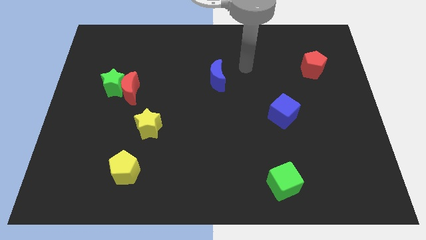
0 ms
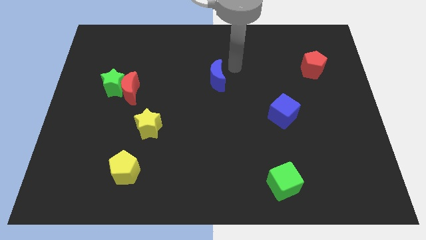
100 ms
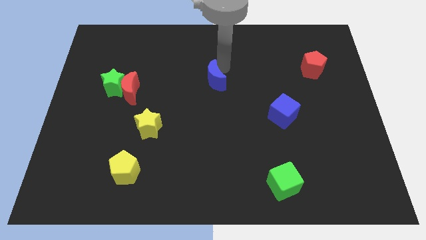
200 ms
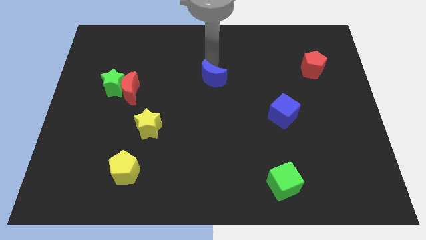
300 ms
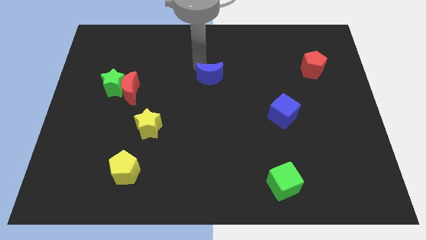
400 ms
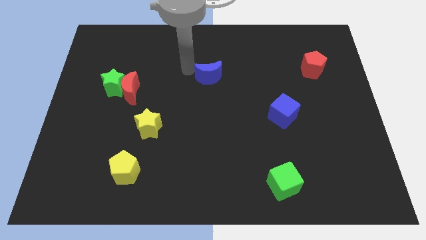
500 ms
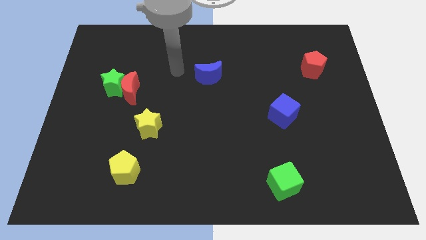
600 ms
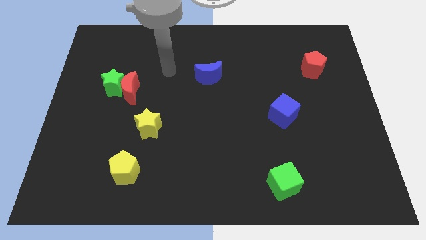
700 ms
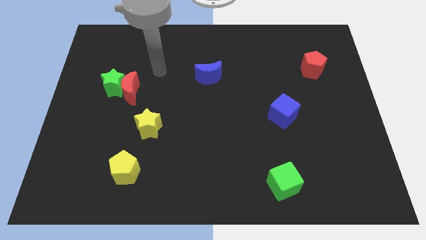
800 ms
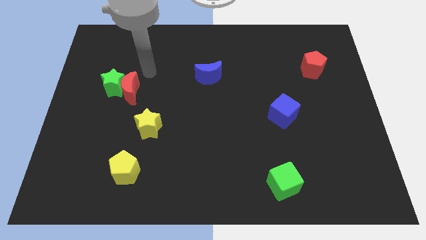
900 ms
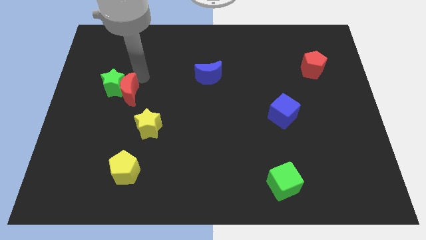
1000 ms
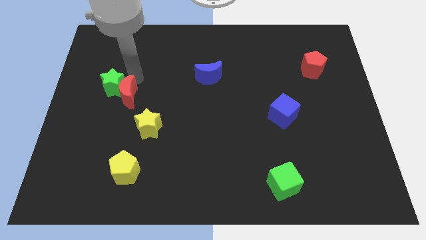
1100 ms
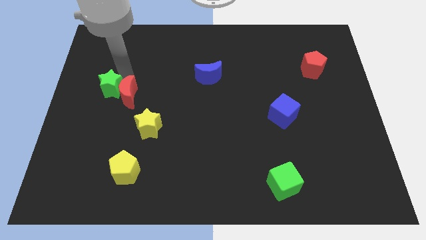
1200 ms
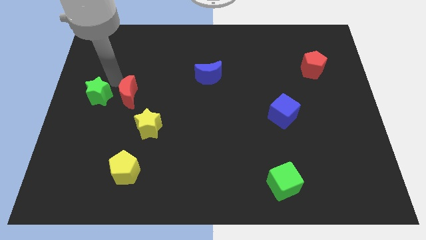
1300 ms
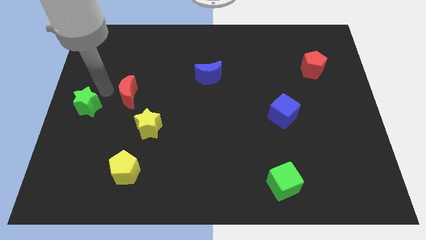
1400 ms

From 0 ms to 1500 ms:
pull the red moon apart from the green star

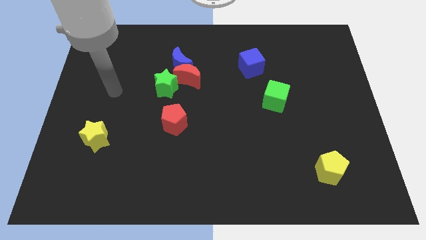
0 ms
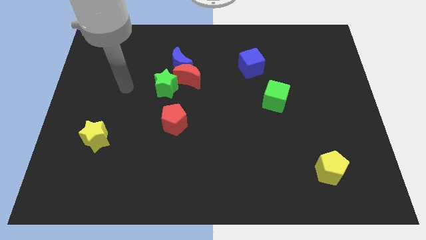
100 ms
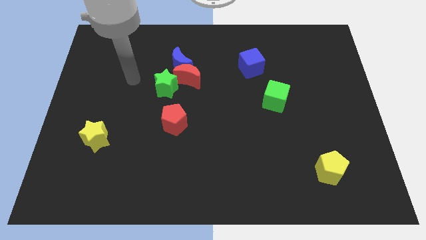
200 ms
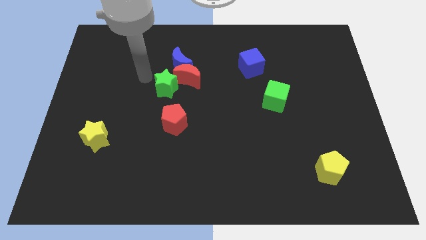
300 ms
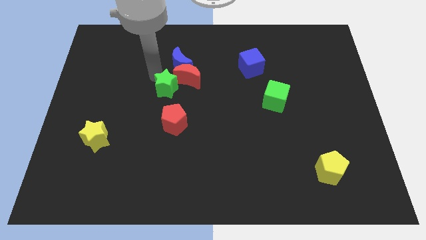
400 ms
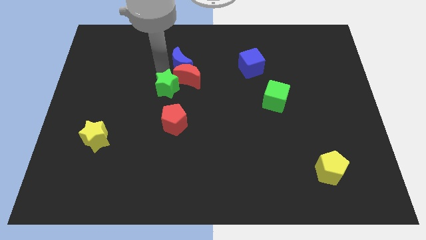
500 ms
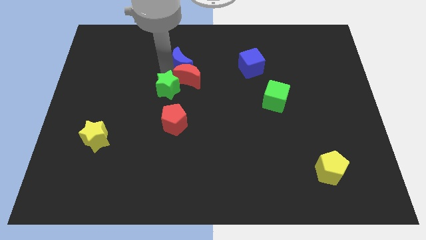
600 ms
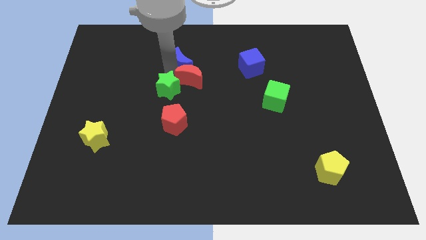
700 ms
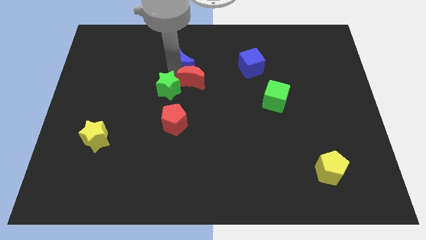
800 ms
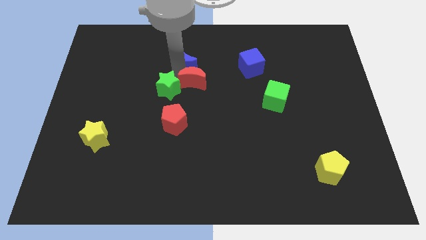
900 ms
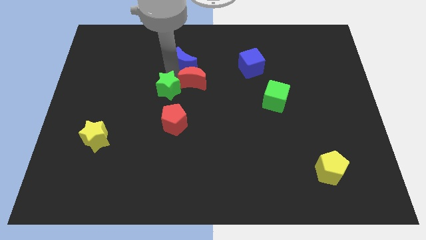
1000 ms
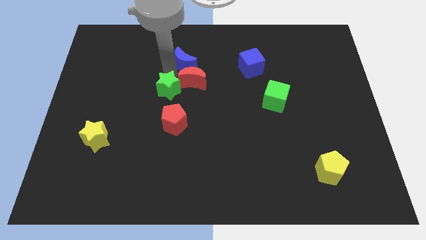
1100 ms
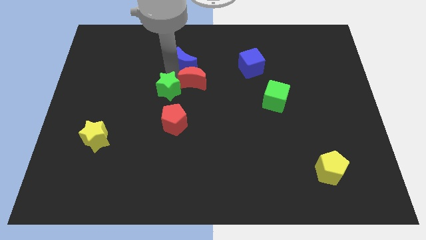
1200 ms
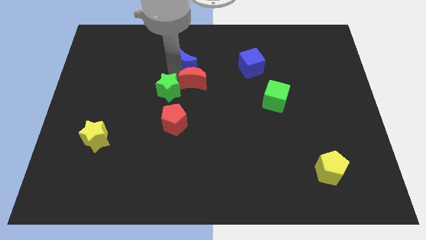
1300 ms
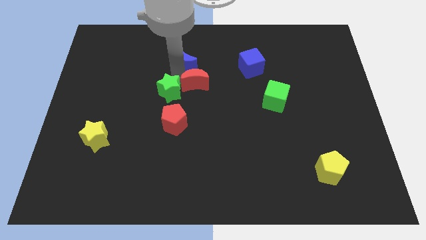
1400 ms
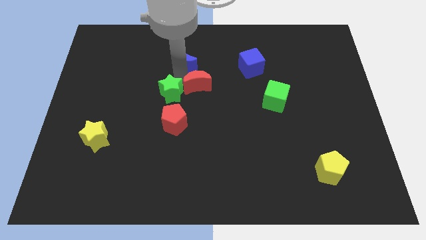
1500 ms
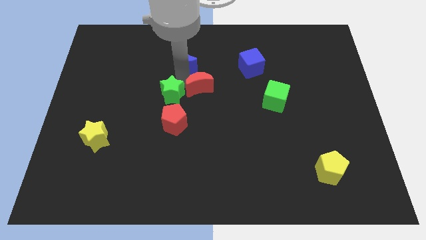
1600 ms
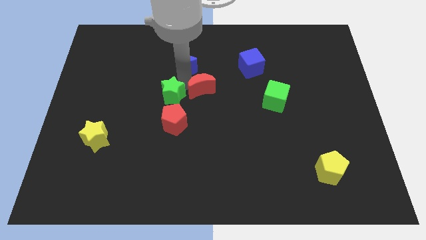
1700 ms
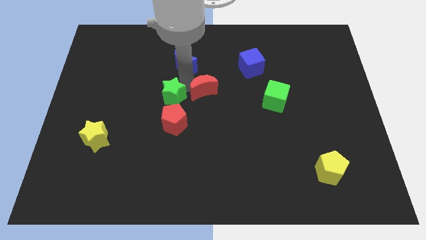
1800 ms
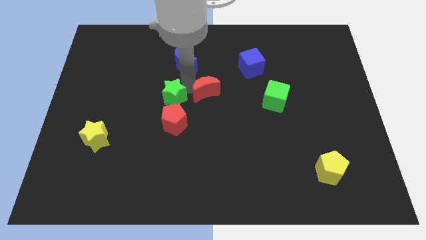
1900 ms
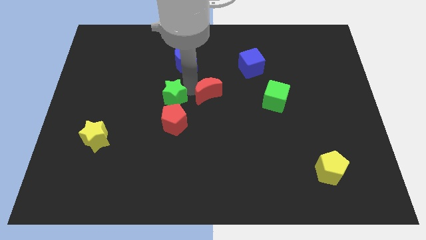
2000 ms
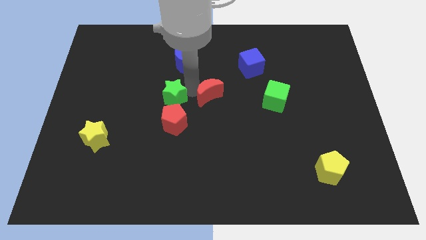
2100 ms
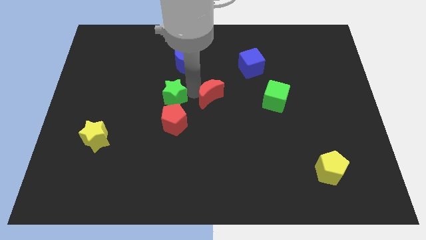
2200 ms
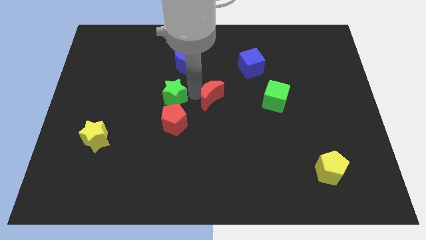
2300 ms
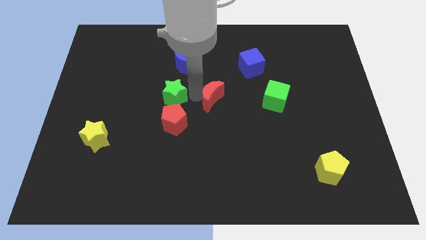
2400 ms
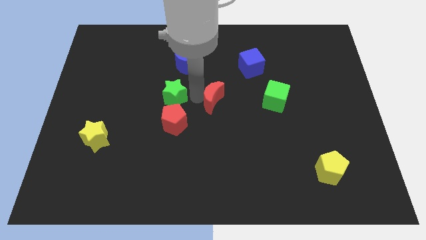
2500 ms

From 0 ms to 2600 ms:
separate the red moon from the blue moon and green star

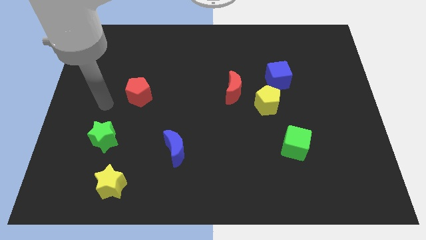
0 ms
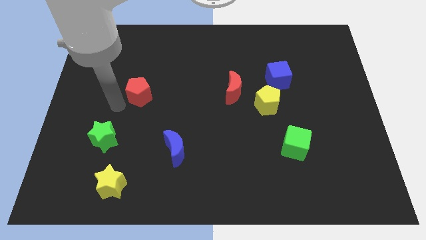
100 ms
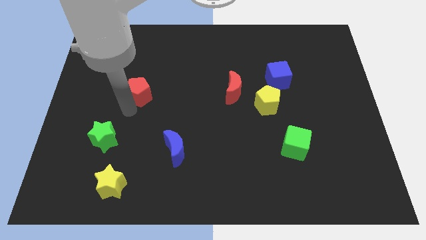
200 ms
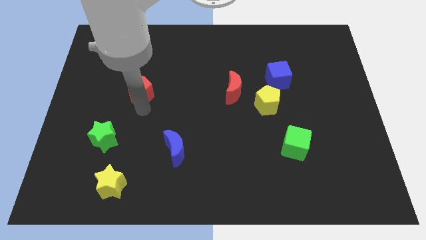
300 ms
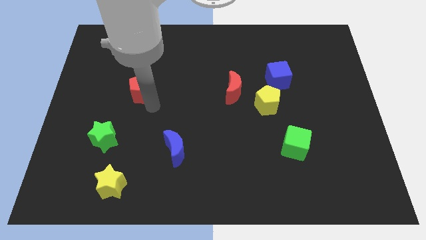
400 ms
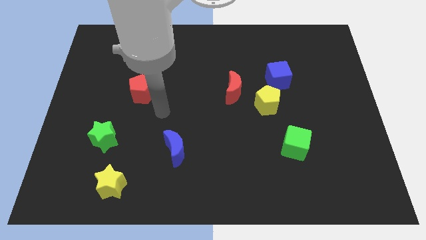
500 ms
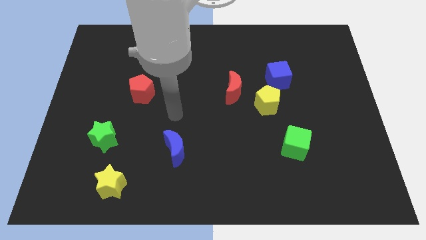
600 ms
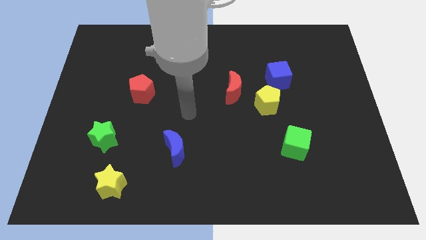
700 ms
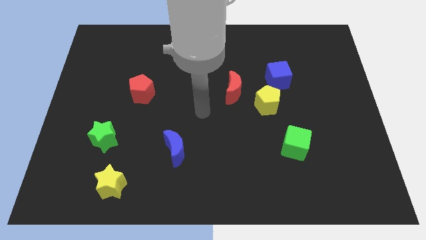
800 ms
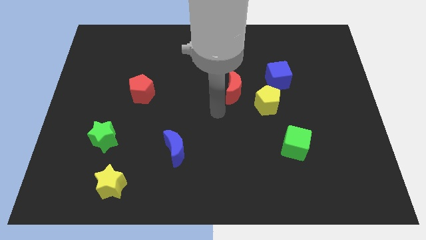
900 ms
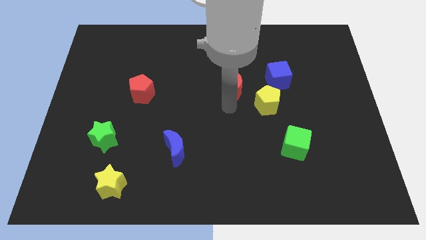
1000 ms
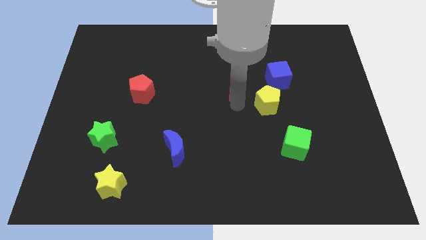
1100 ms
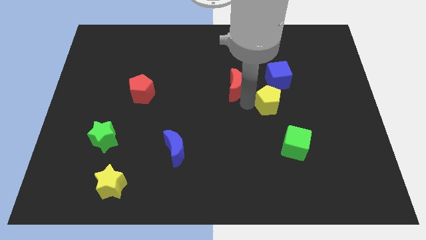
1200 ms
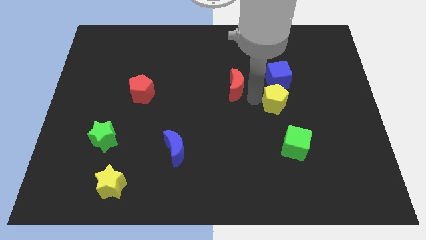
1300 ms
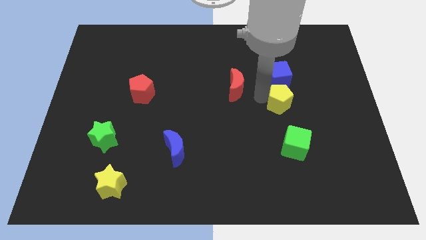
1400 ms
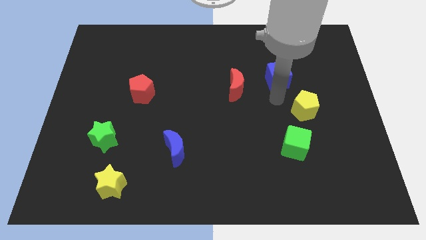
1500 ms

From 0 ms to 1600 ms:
pull the blue cube apart from the yellow pentagon

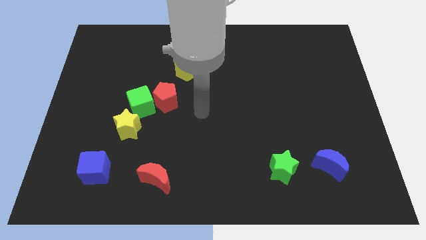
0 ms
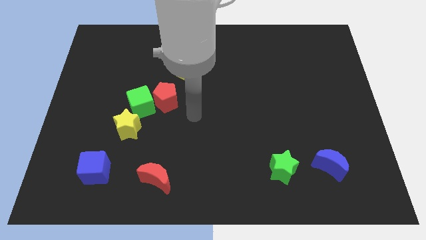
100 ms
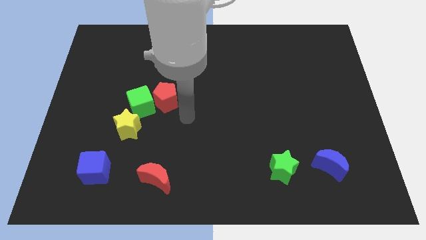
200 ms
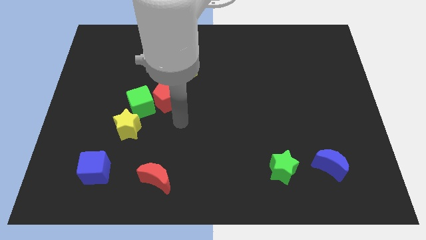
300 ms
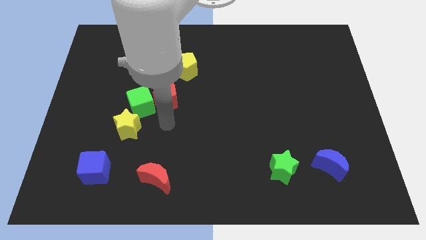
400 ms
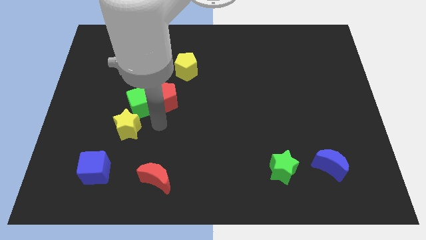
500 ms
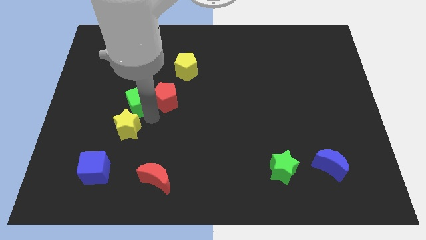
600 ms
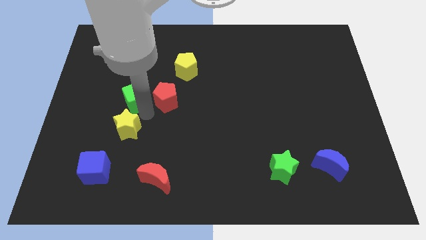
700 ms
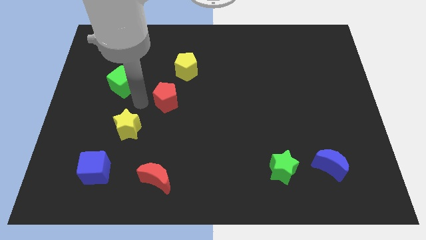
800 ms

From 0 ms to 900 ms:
move the red pentagon away from the green cube

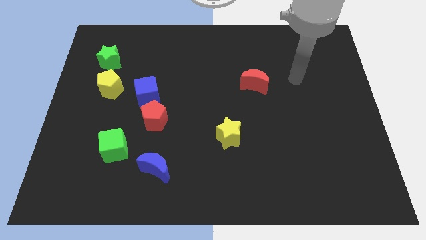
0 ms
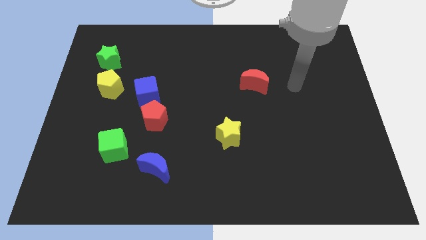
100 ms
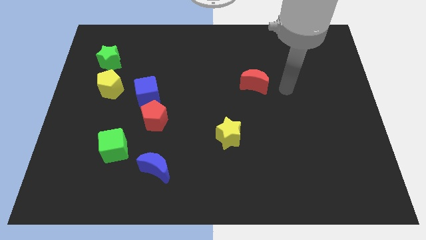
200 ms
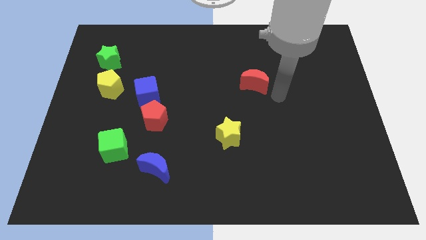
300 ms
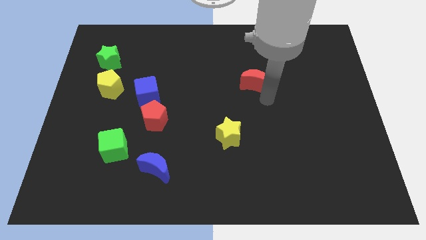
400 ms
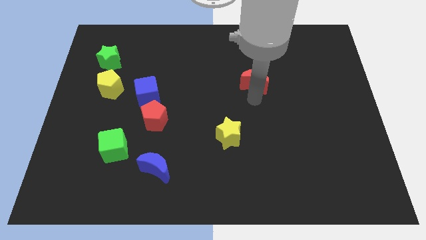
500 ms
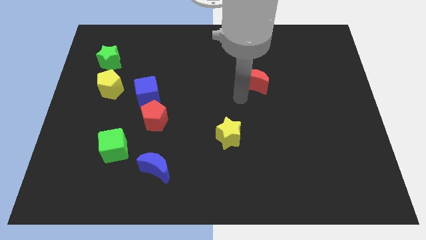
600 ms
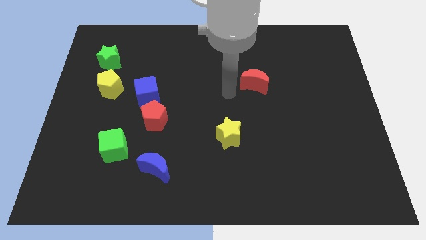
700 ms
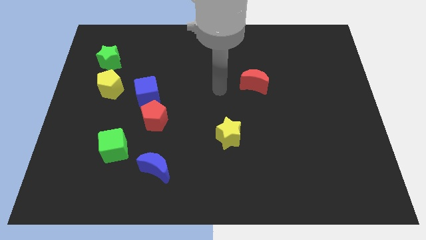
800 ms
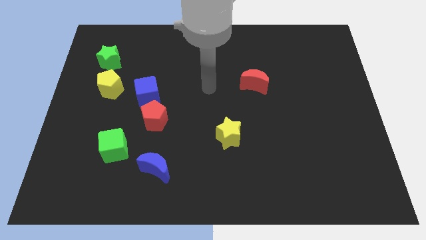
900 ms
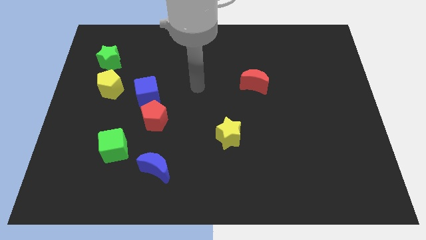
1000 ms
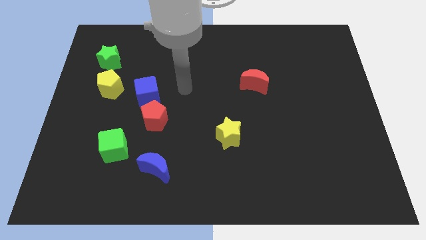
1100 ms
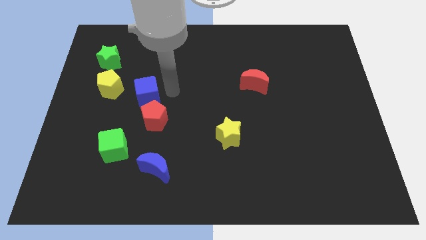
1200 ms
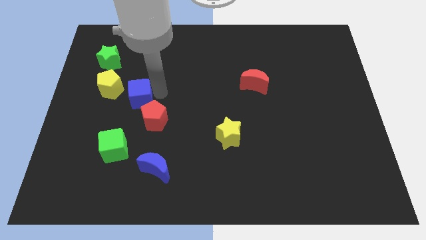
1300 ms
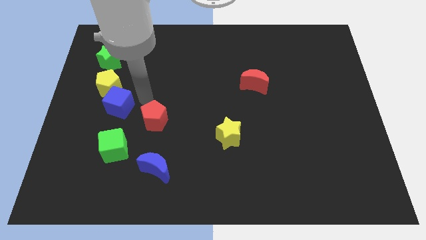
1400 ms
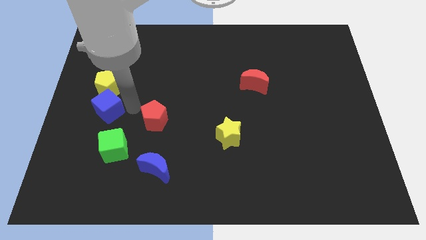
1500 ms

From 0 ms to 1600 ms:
pull the red pentagon apart from the blue cube

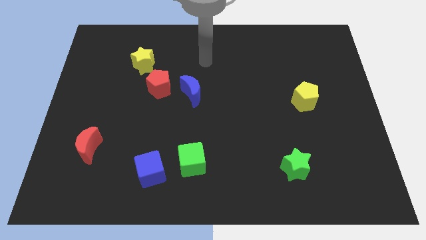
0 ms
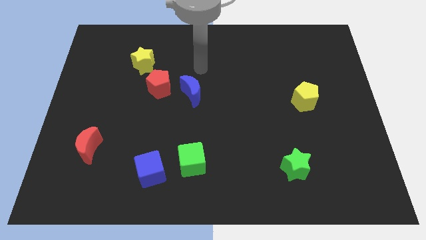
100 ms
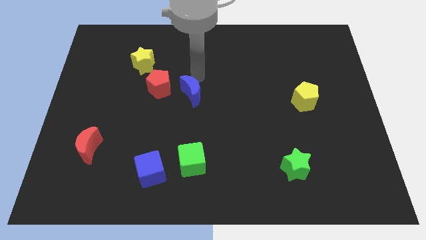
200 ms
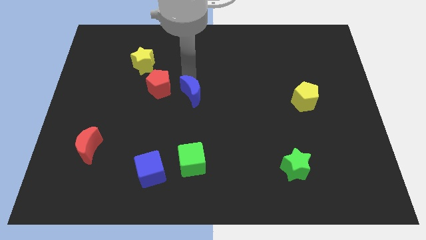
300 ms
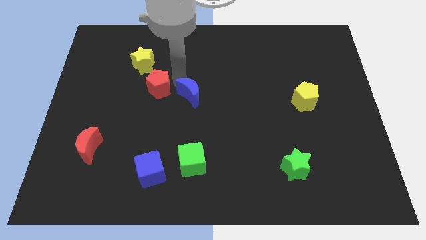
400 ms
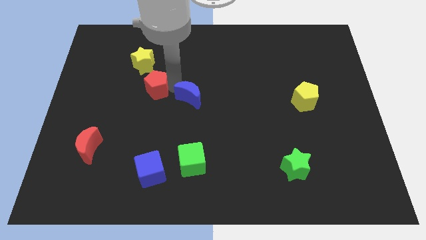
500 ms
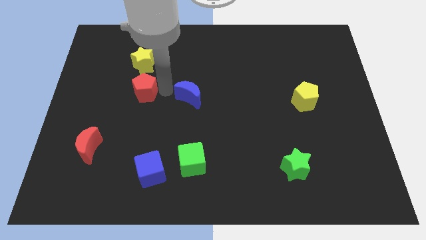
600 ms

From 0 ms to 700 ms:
move the blue moon away from the red pentagon

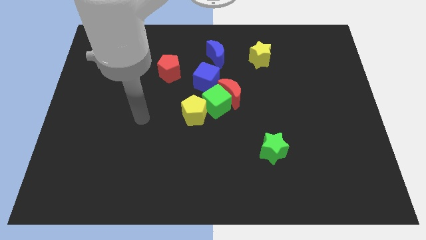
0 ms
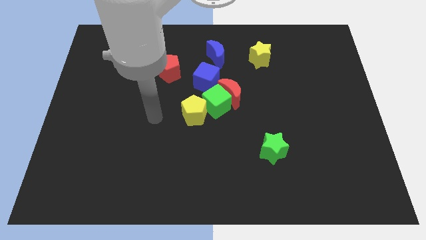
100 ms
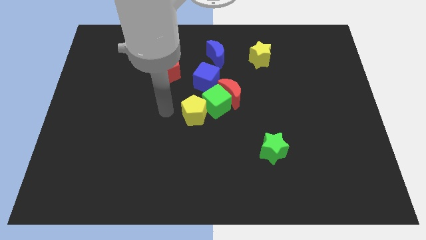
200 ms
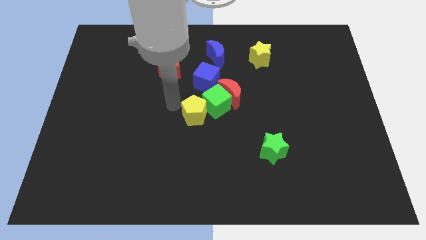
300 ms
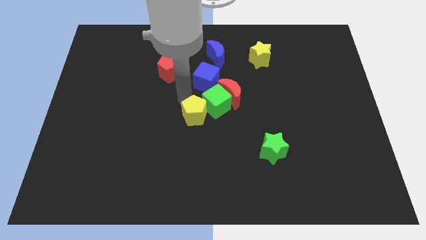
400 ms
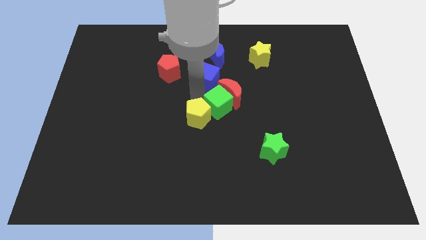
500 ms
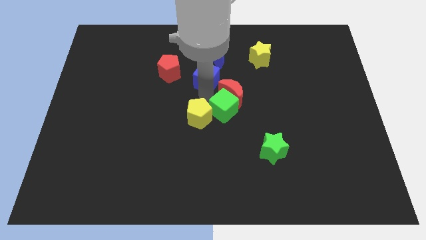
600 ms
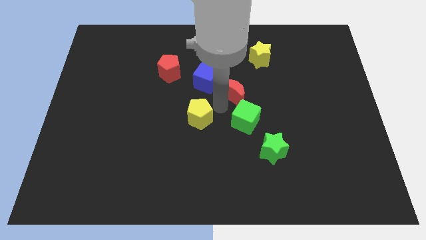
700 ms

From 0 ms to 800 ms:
separate the yellow pentagon from the green cube
